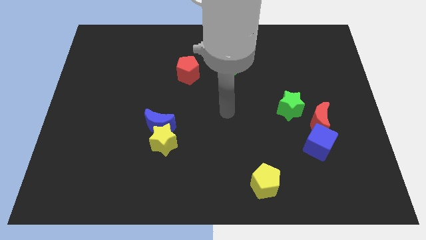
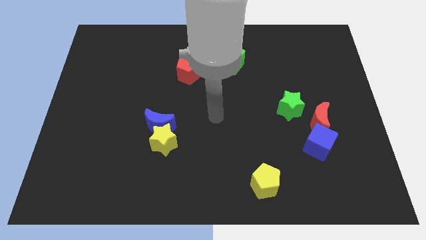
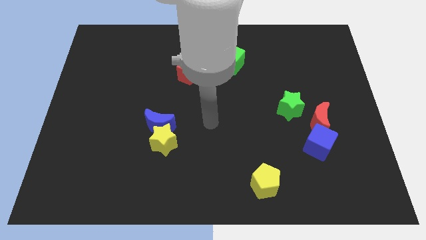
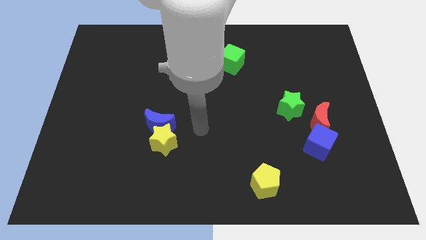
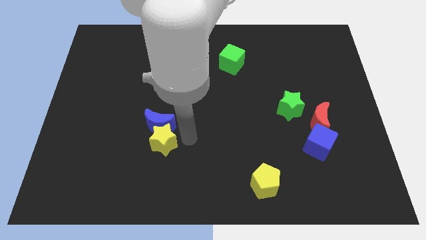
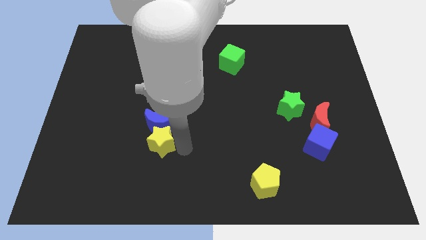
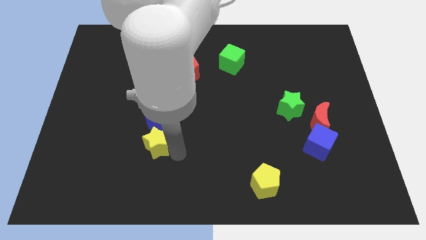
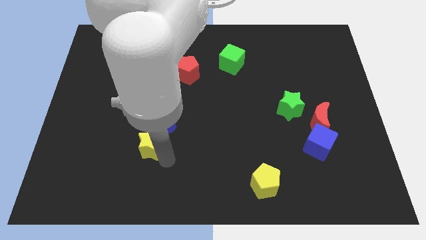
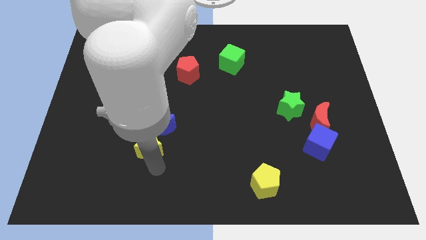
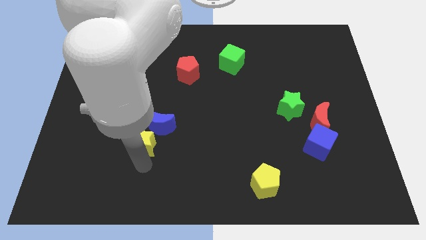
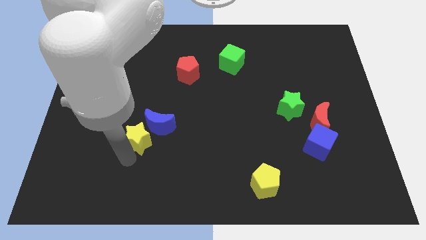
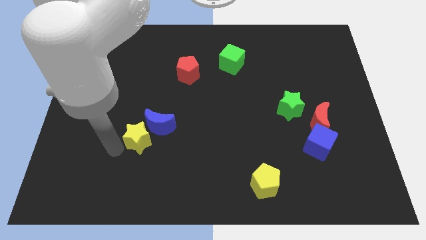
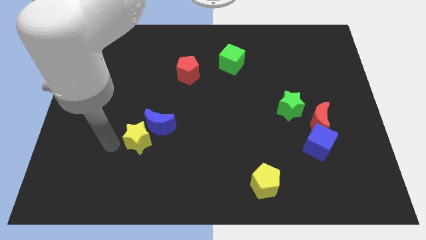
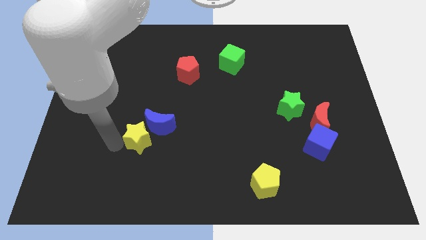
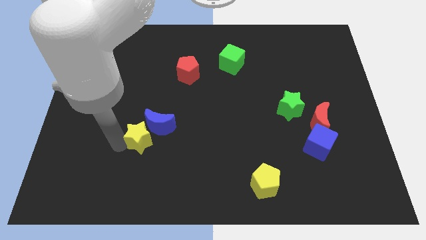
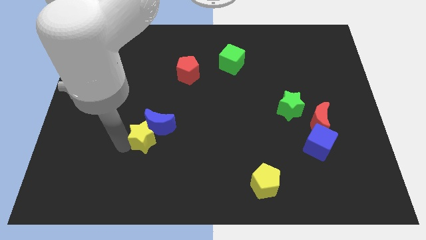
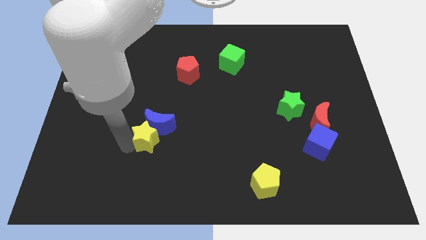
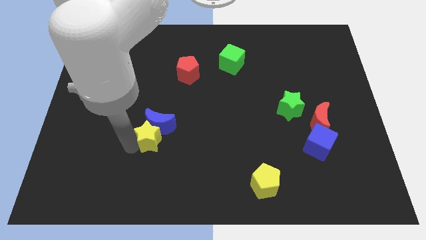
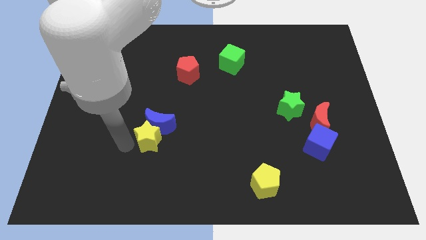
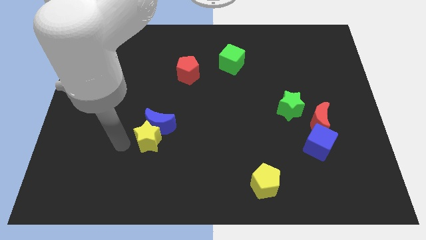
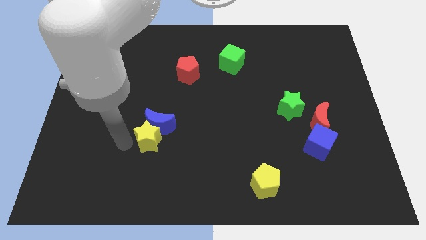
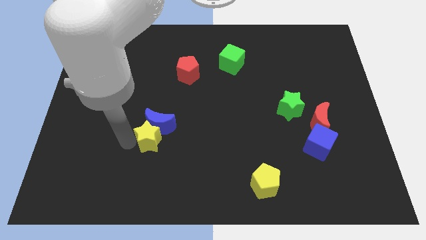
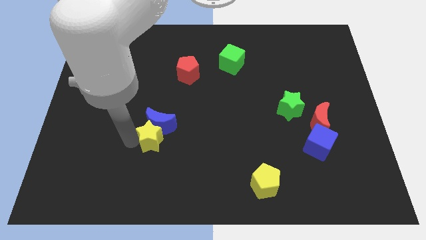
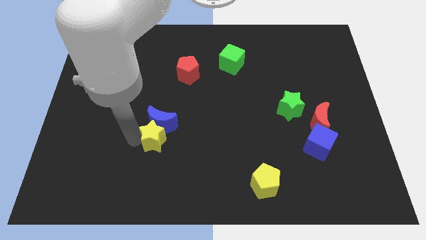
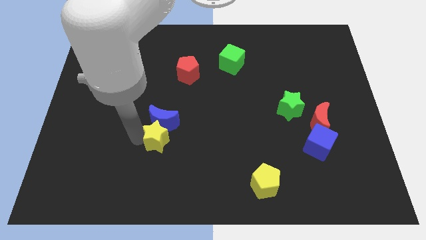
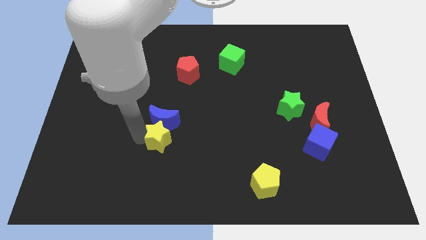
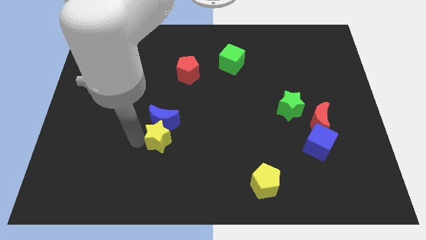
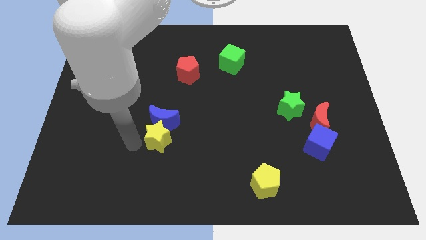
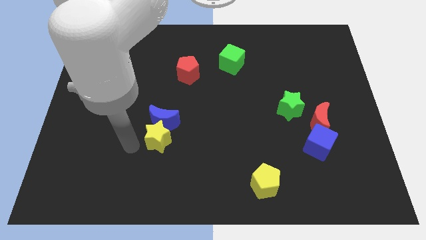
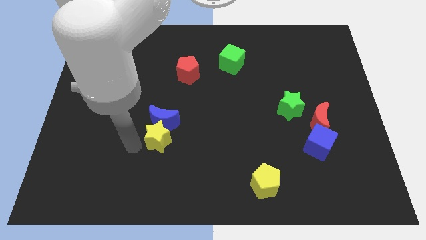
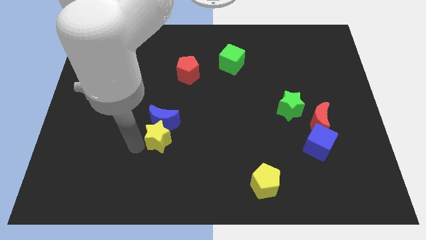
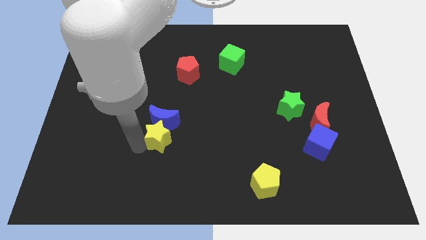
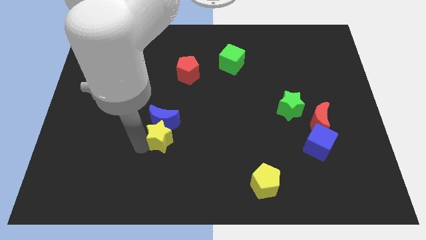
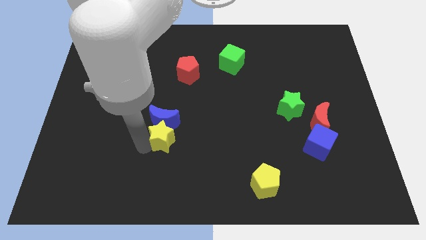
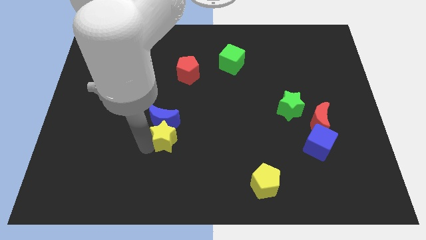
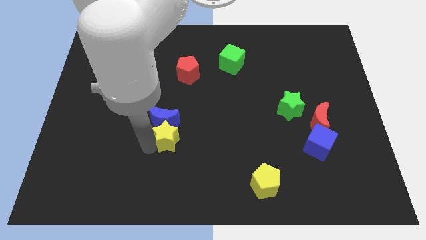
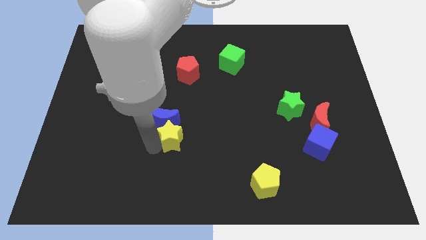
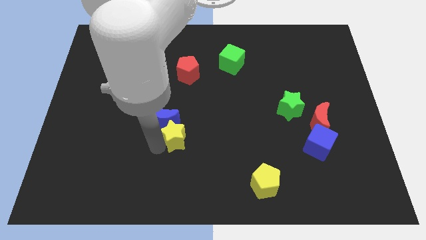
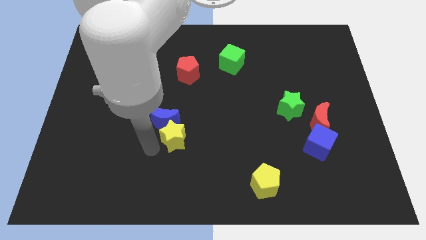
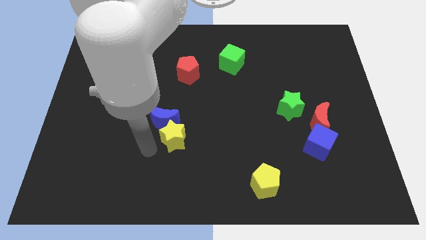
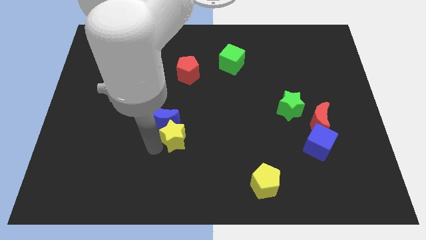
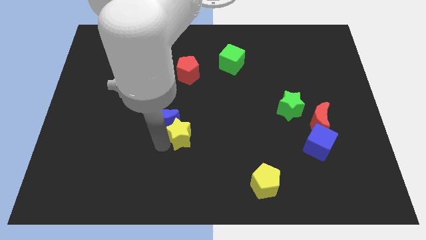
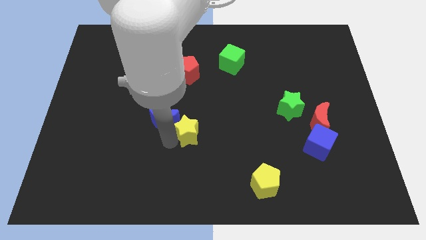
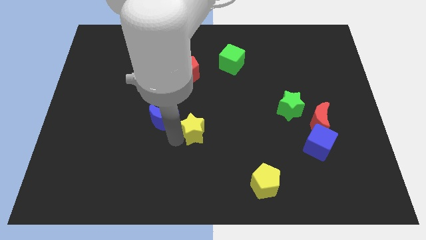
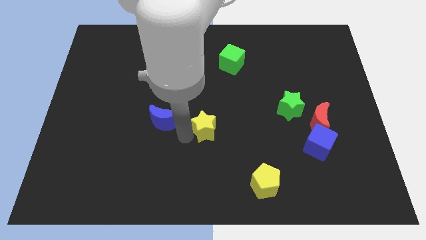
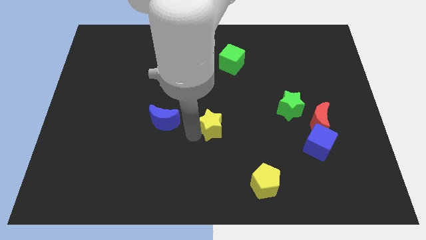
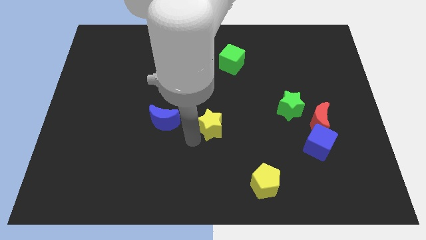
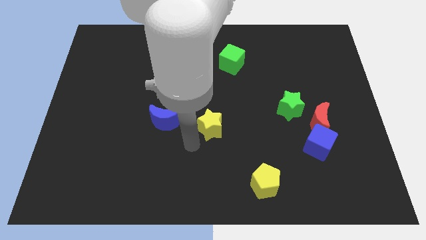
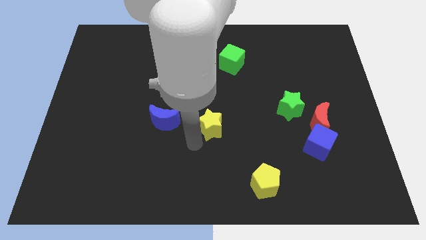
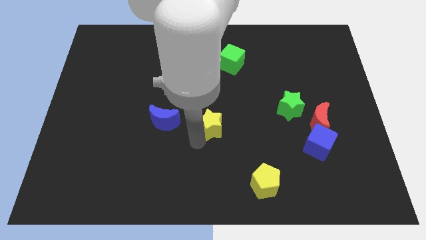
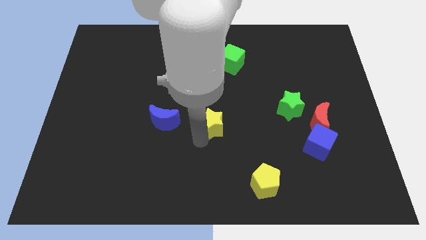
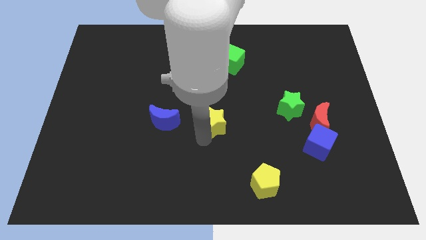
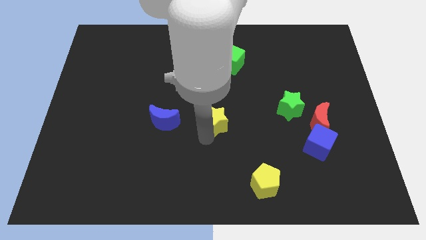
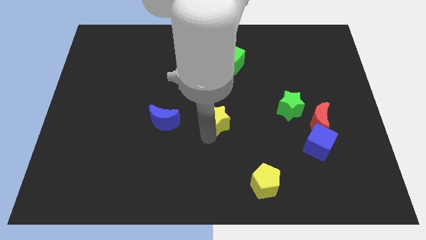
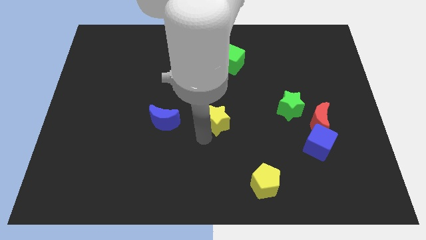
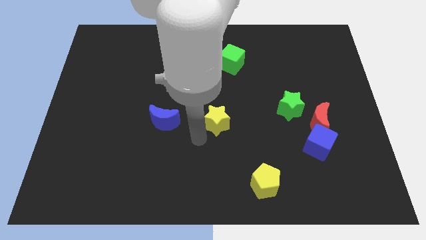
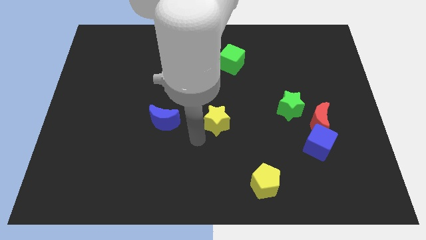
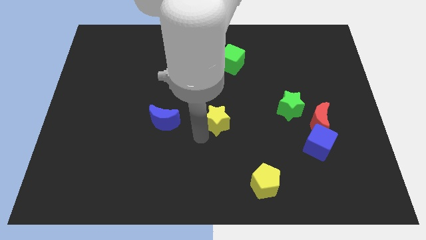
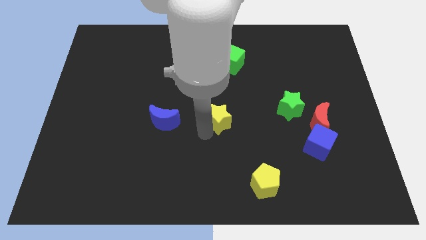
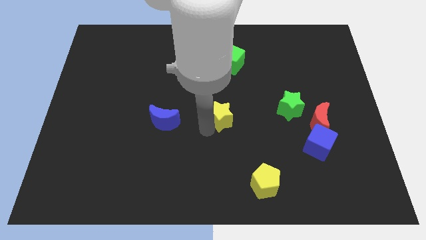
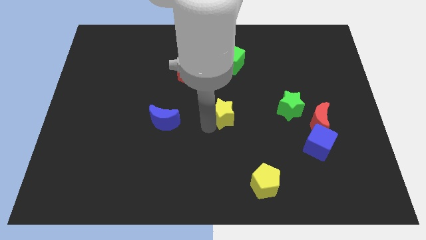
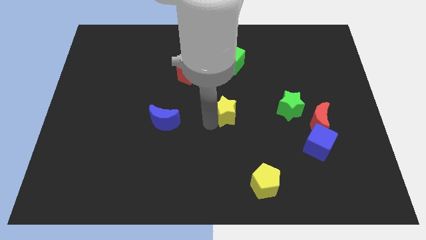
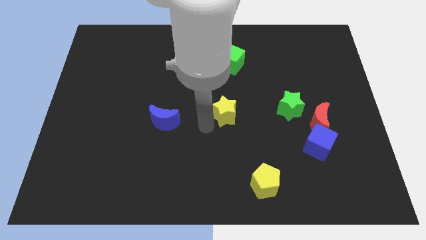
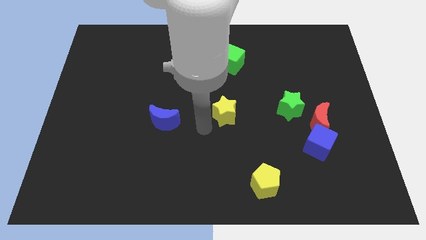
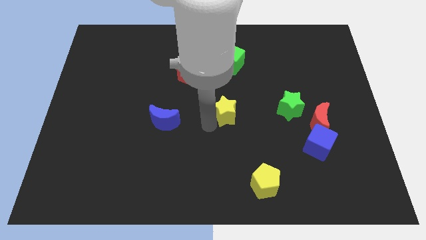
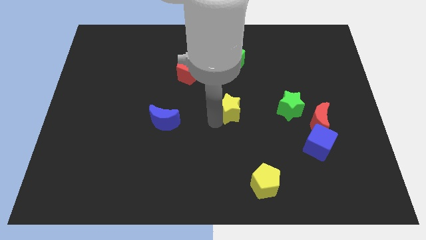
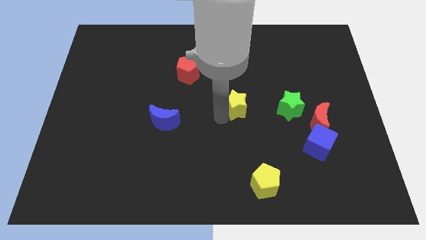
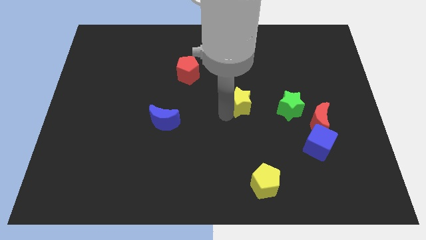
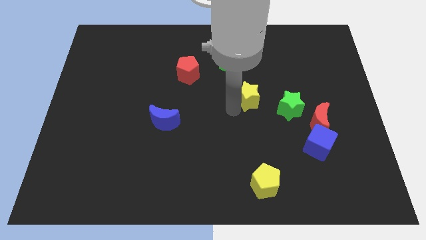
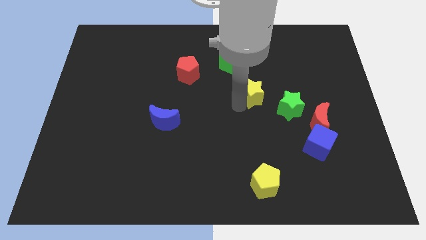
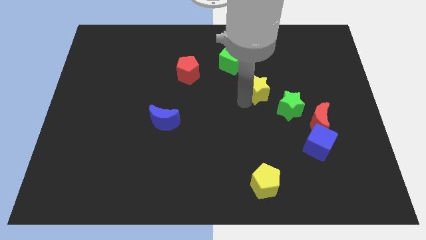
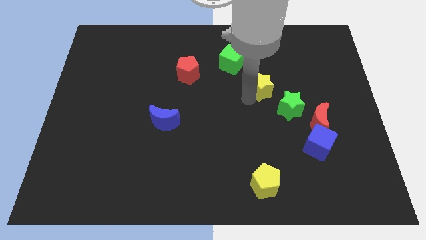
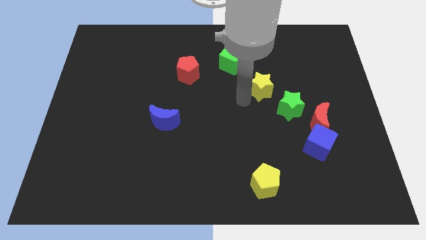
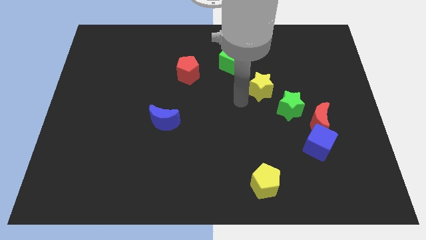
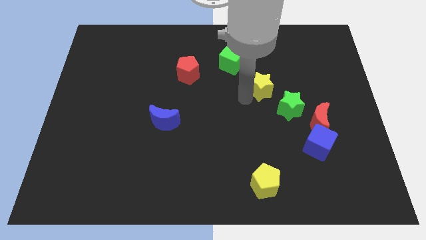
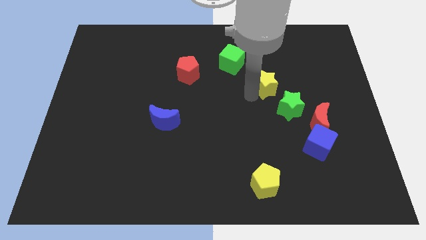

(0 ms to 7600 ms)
put the yellow star to the top of the green star

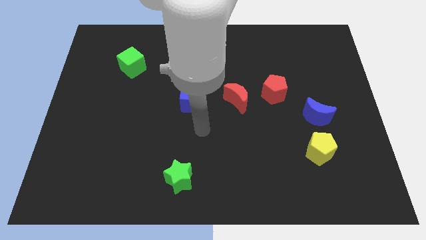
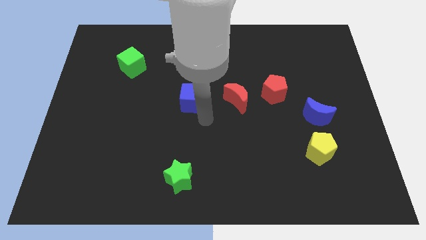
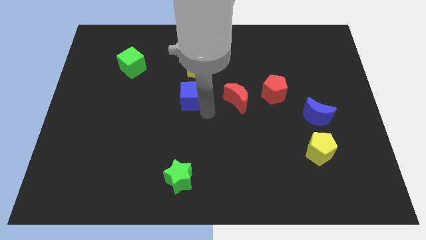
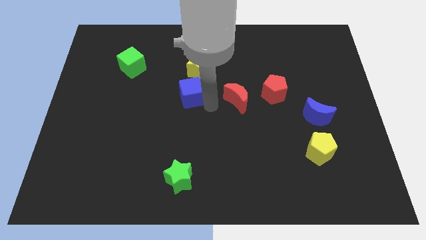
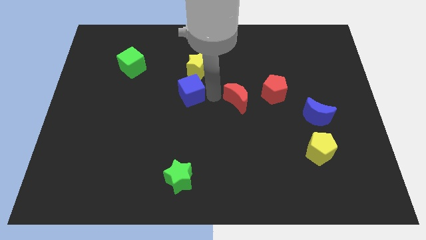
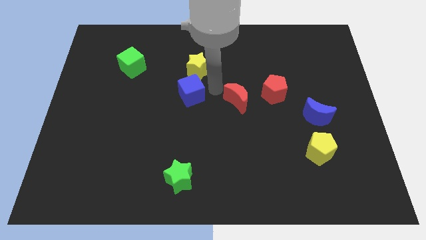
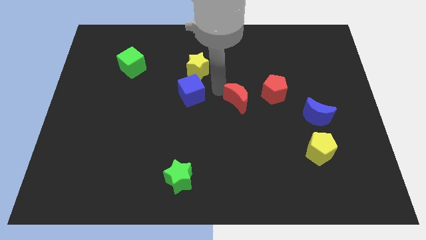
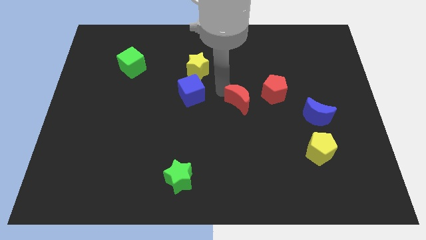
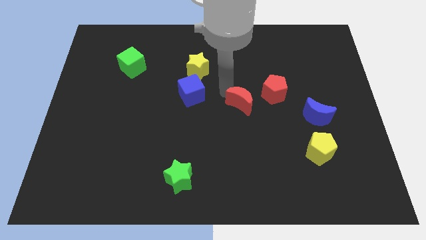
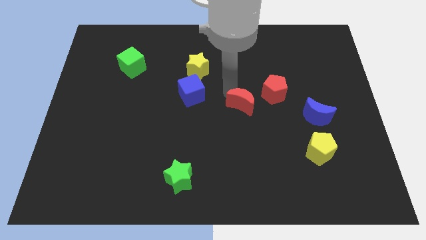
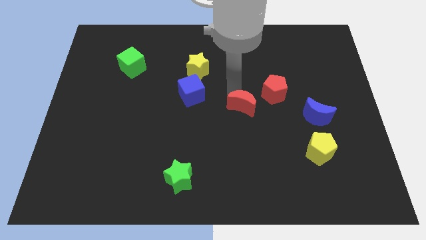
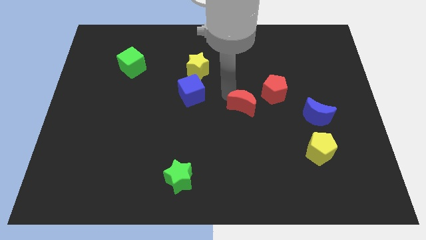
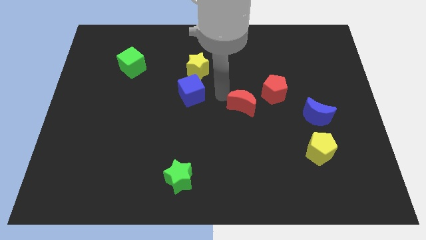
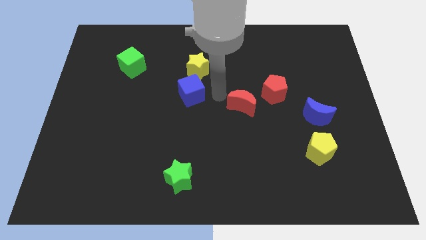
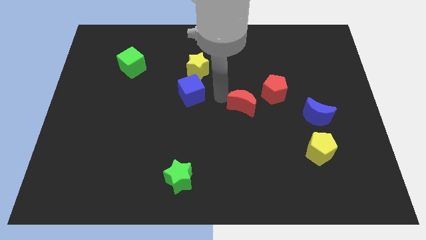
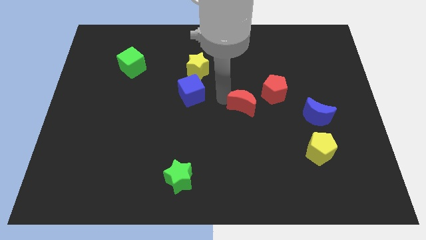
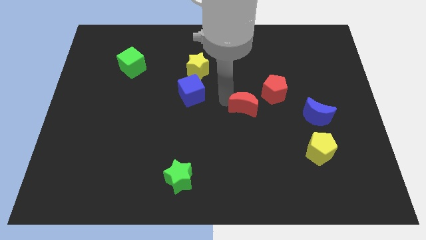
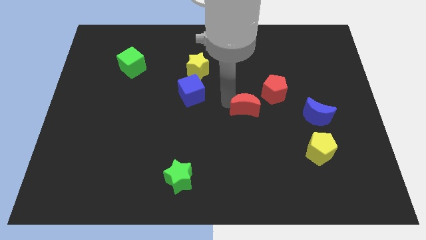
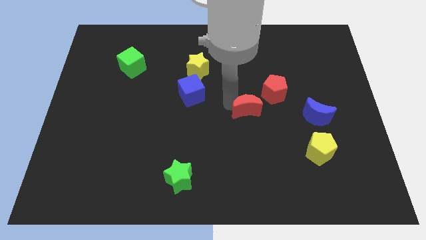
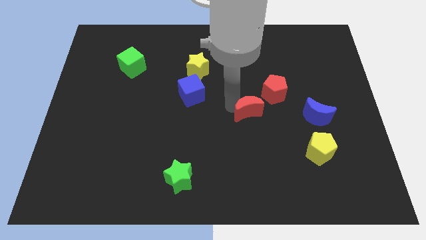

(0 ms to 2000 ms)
move the red moon left of the blue moon
